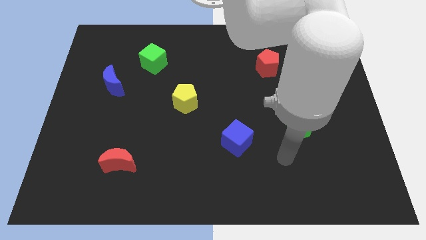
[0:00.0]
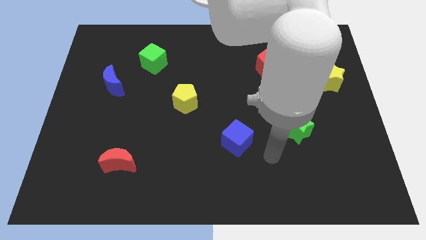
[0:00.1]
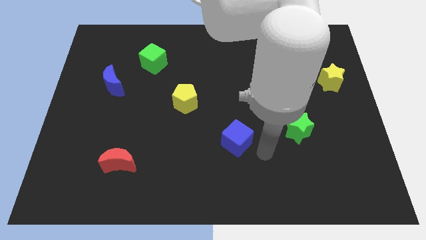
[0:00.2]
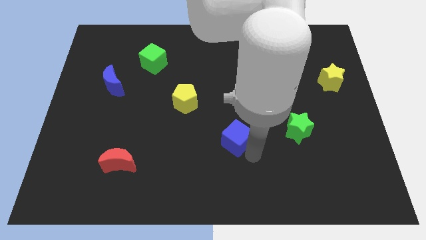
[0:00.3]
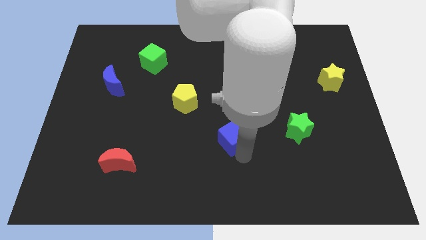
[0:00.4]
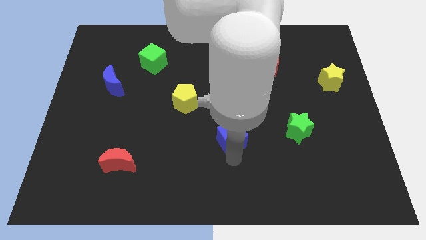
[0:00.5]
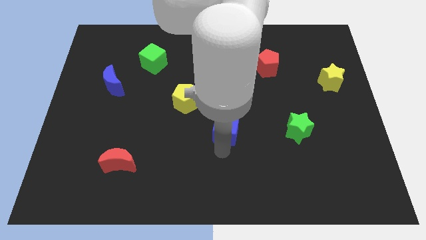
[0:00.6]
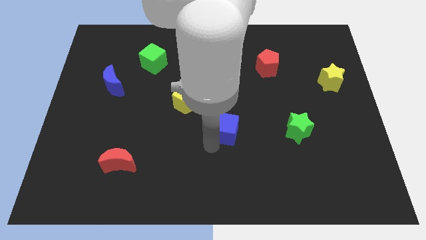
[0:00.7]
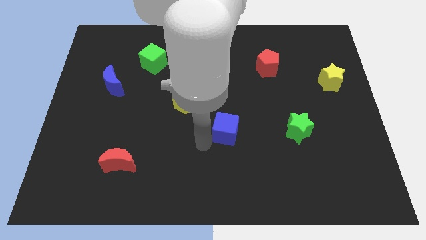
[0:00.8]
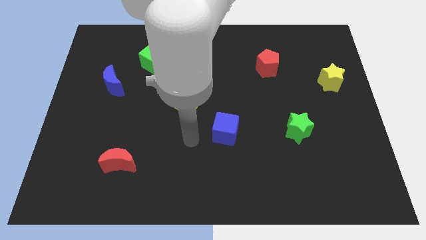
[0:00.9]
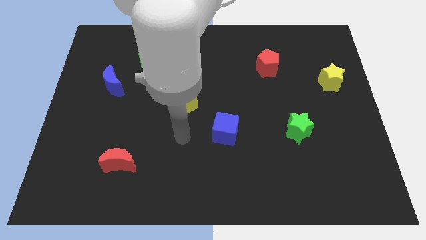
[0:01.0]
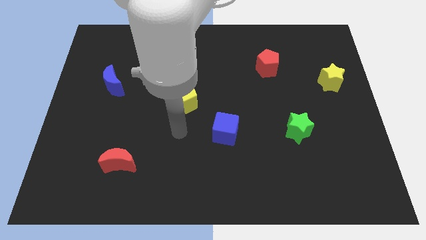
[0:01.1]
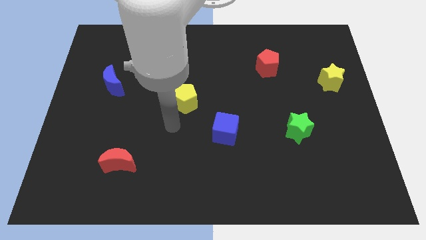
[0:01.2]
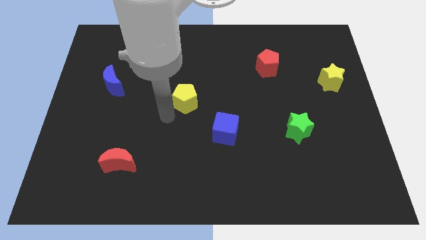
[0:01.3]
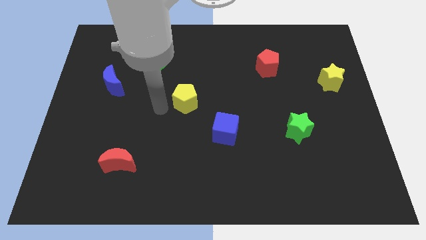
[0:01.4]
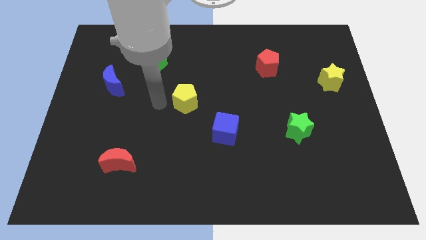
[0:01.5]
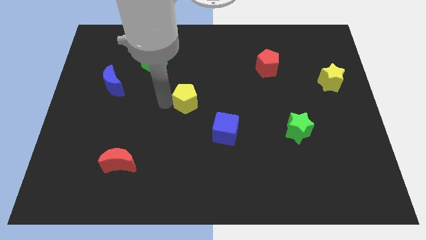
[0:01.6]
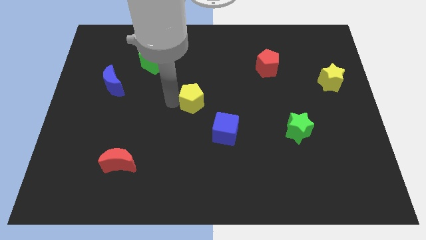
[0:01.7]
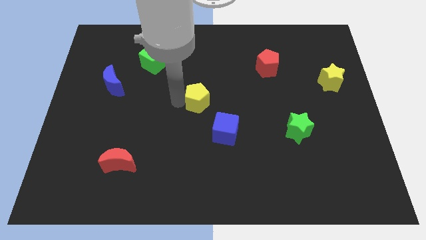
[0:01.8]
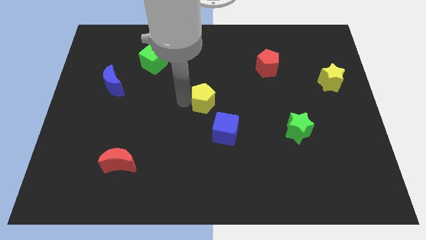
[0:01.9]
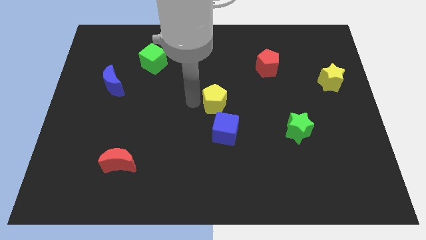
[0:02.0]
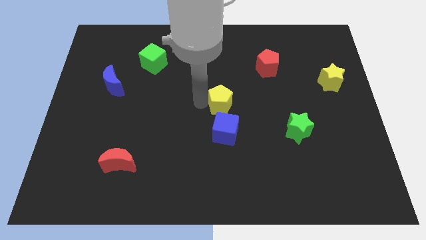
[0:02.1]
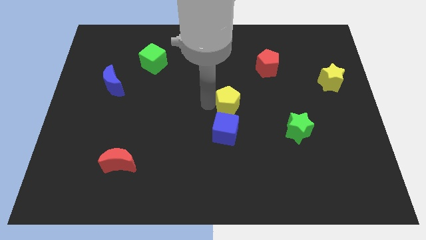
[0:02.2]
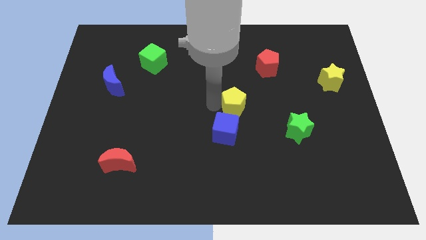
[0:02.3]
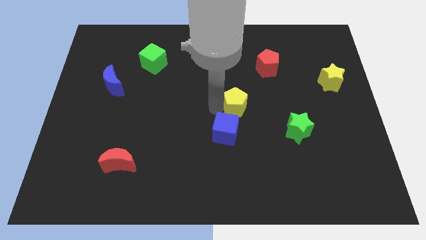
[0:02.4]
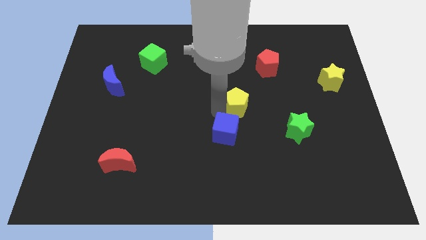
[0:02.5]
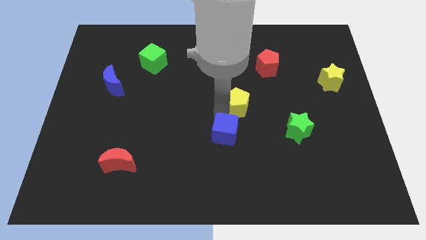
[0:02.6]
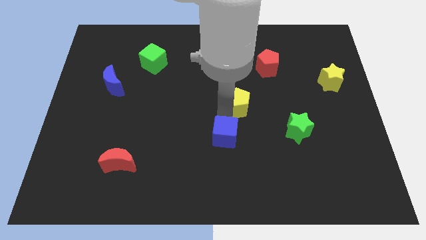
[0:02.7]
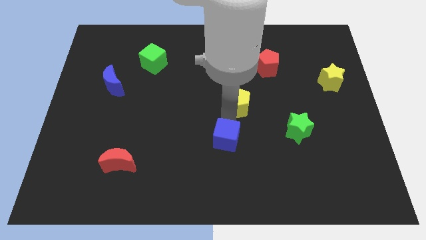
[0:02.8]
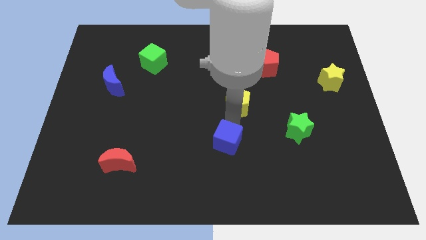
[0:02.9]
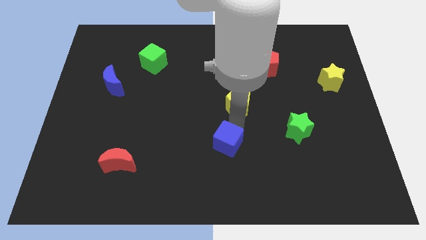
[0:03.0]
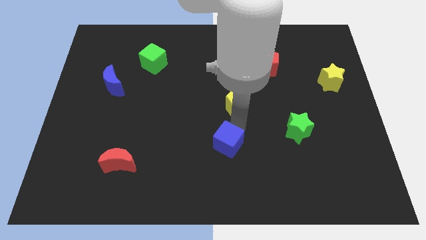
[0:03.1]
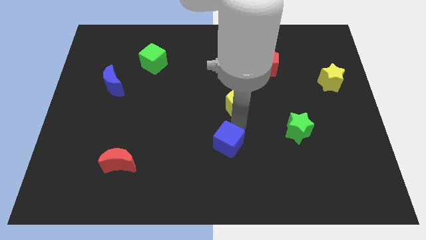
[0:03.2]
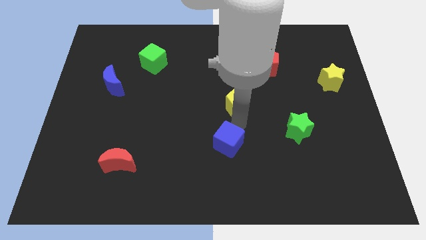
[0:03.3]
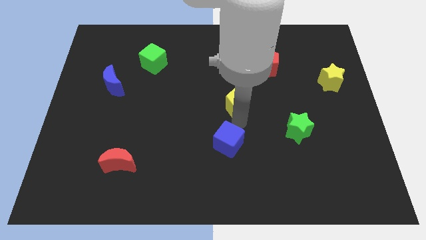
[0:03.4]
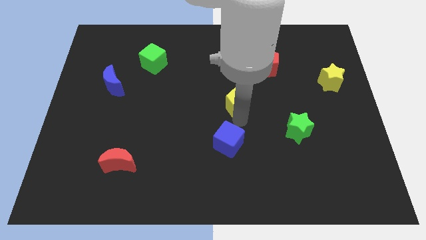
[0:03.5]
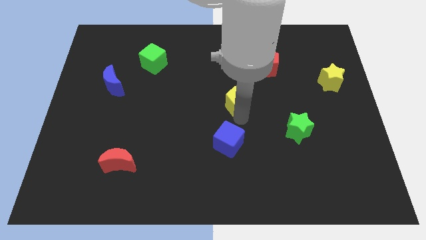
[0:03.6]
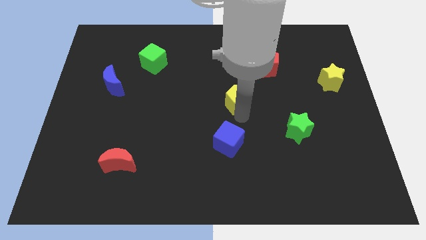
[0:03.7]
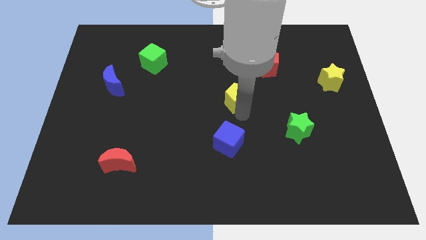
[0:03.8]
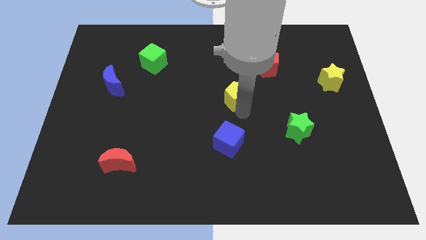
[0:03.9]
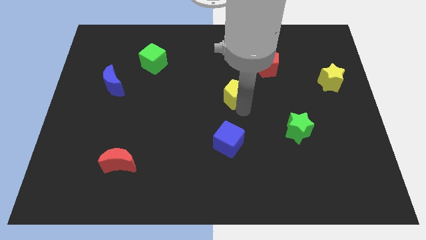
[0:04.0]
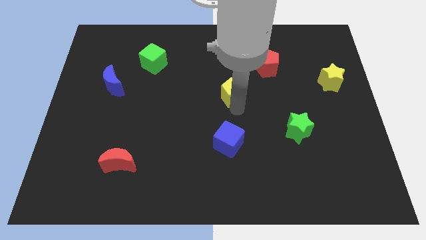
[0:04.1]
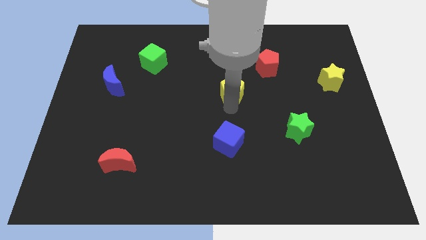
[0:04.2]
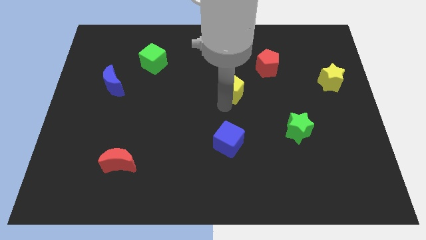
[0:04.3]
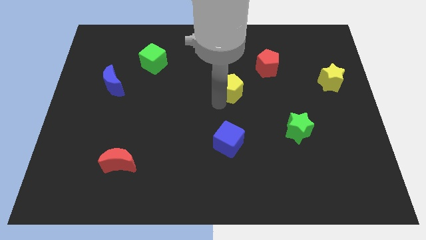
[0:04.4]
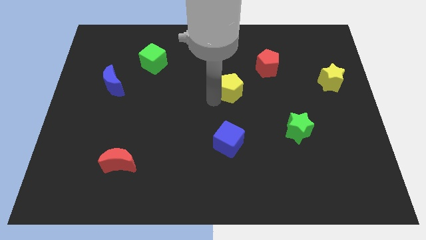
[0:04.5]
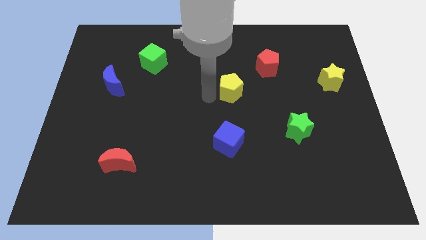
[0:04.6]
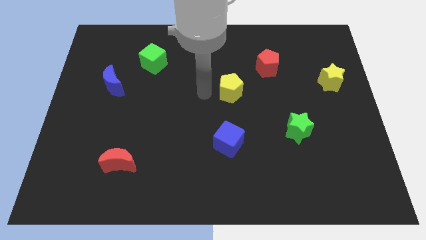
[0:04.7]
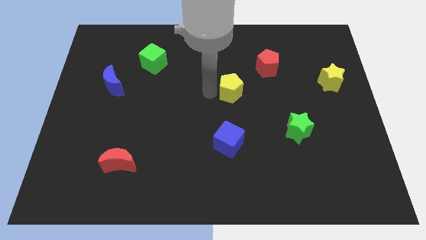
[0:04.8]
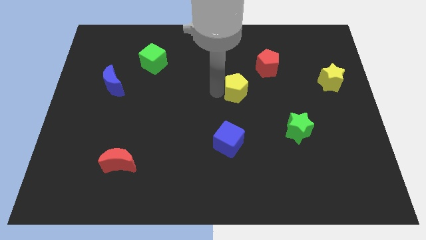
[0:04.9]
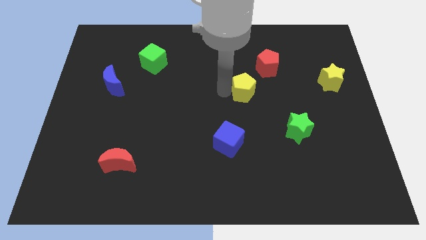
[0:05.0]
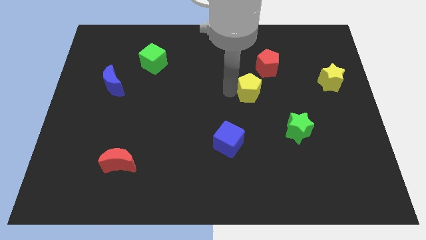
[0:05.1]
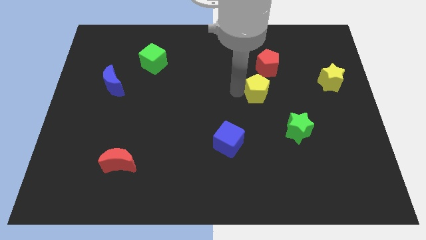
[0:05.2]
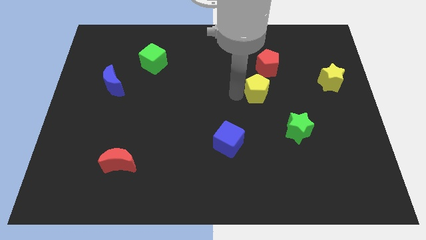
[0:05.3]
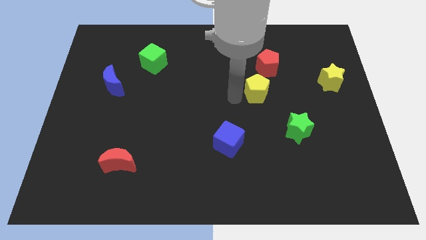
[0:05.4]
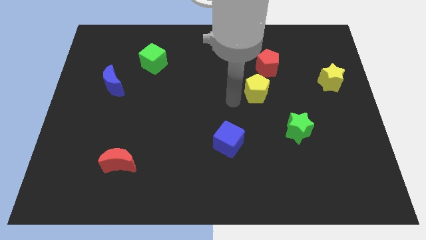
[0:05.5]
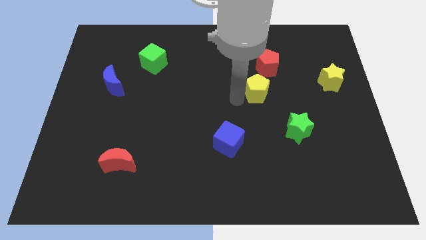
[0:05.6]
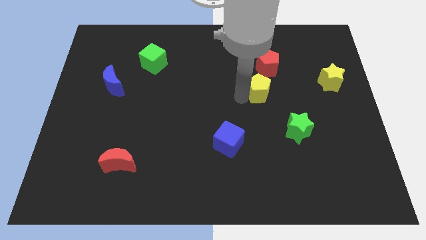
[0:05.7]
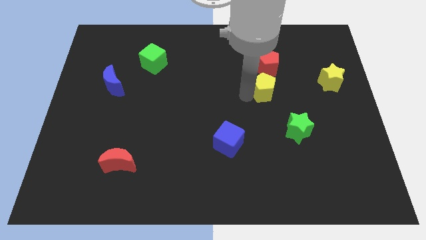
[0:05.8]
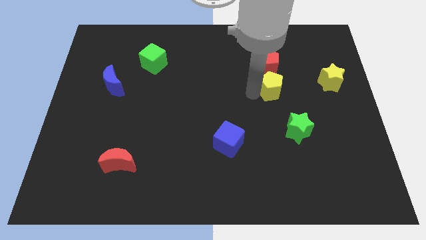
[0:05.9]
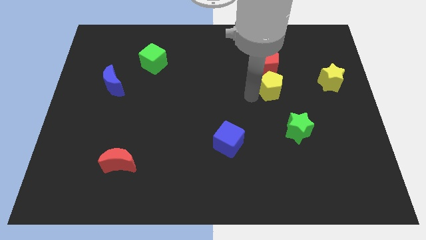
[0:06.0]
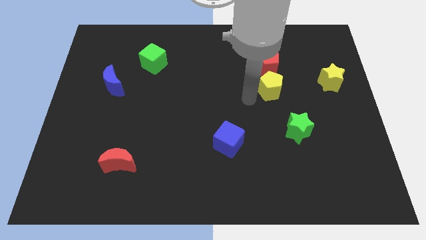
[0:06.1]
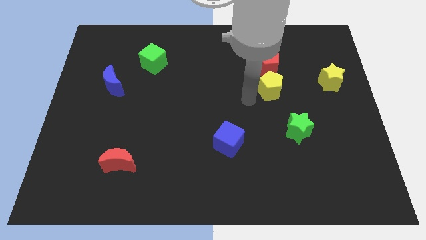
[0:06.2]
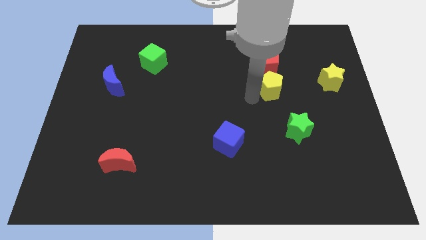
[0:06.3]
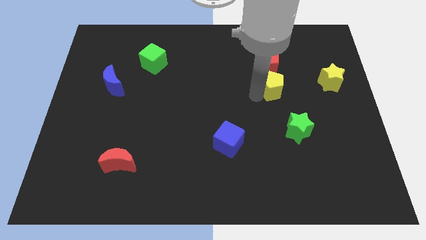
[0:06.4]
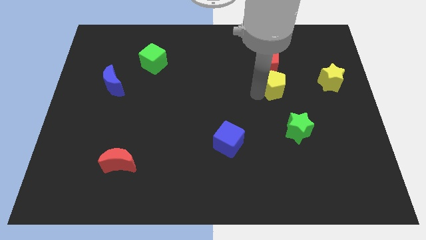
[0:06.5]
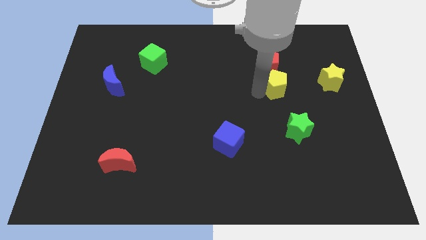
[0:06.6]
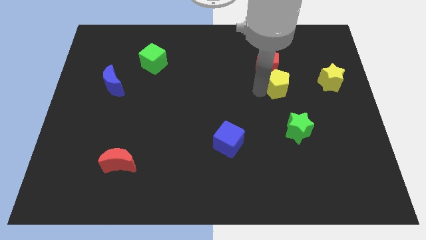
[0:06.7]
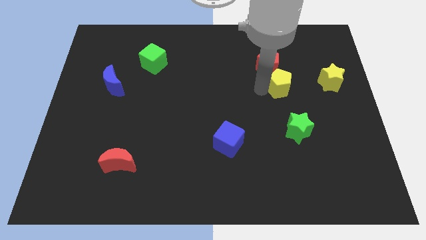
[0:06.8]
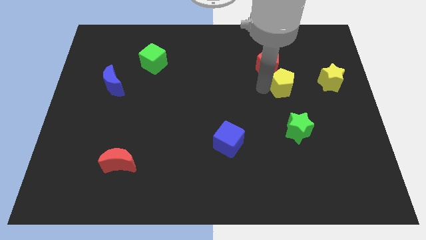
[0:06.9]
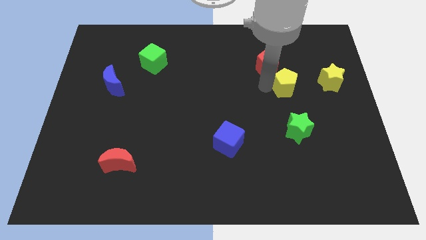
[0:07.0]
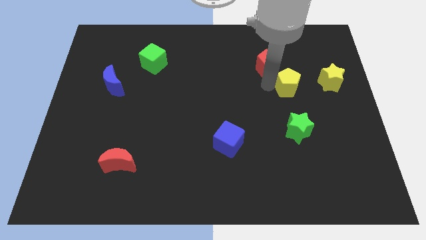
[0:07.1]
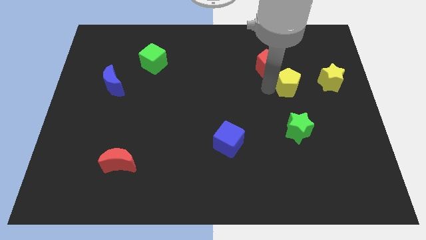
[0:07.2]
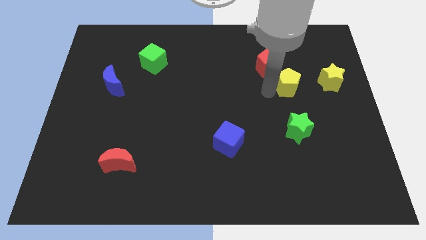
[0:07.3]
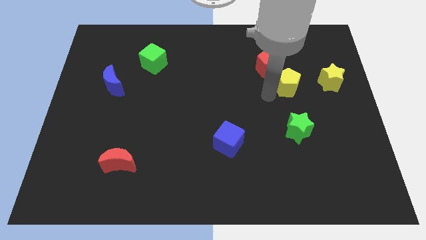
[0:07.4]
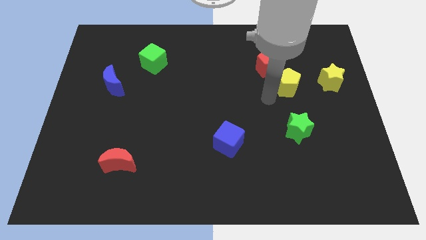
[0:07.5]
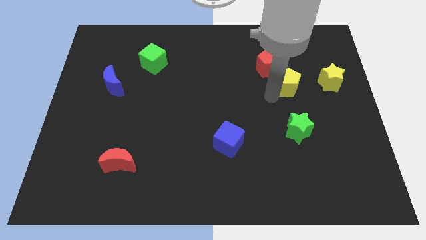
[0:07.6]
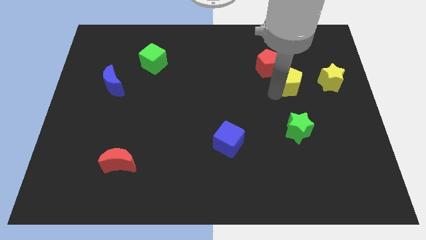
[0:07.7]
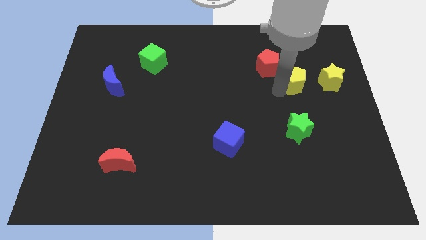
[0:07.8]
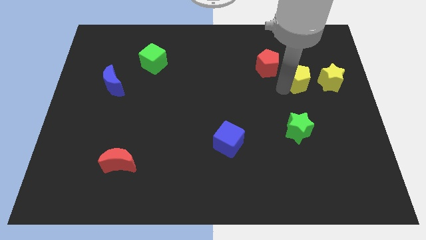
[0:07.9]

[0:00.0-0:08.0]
put the yellow pentagon just right of the red pentagon
